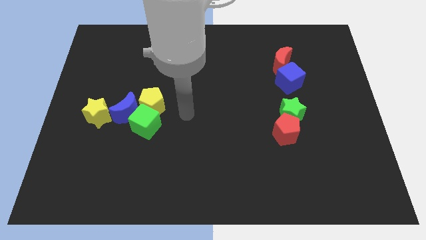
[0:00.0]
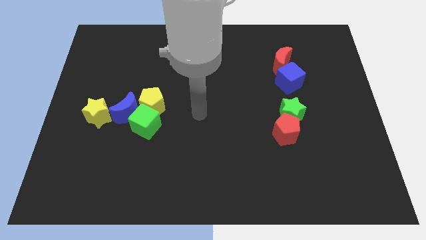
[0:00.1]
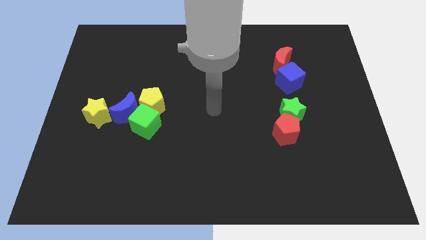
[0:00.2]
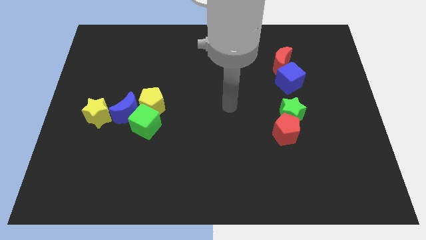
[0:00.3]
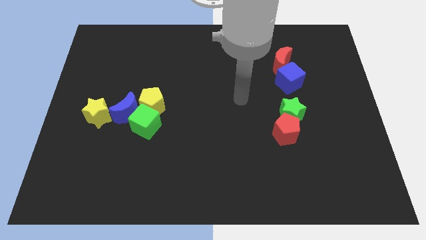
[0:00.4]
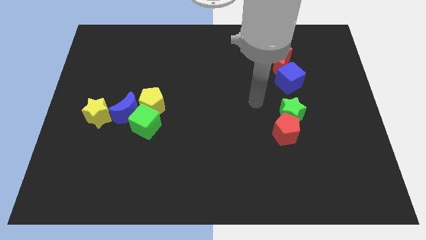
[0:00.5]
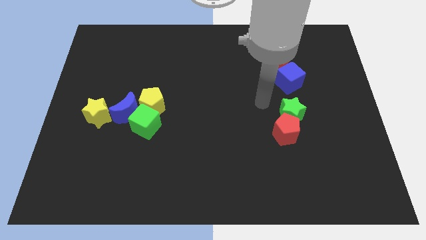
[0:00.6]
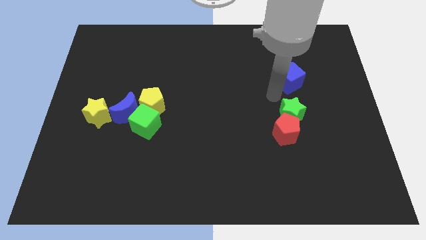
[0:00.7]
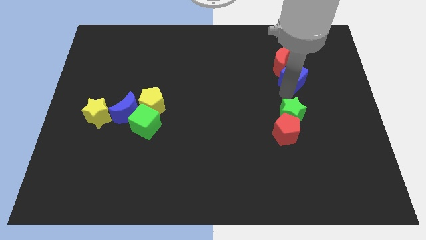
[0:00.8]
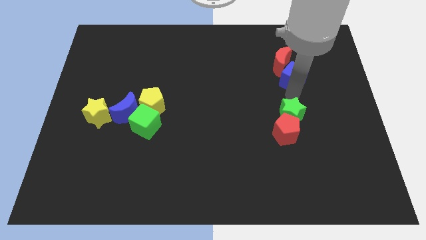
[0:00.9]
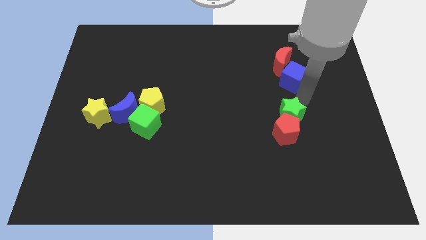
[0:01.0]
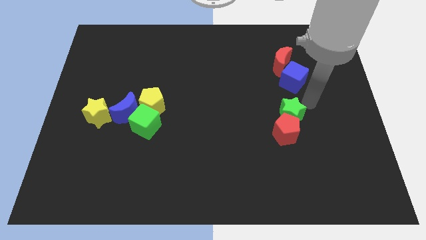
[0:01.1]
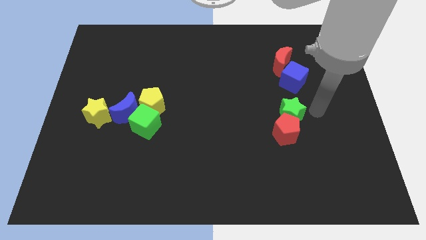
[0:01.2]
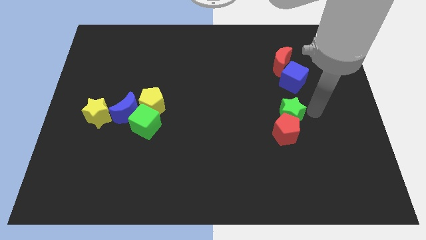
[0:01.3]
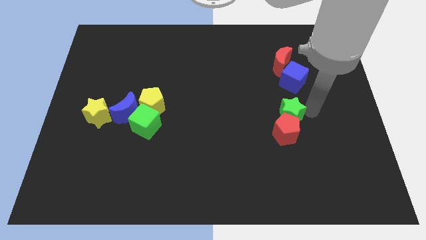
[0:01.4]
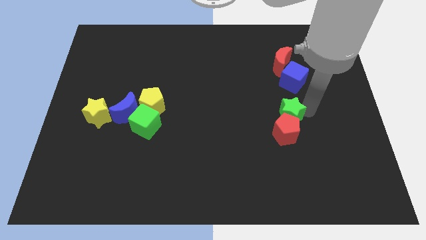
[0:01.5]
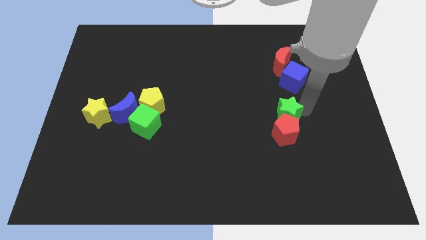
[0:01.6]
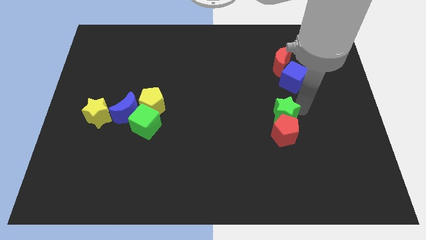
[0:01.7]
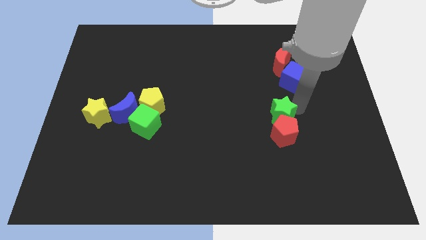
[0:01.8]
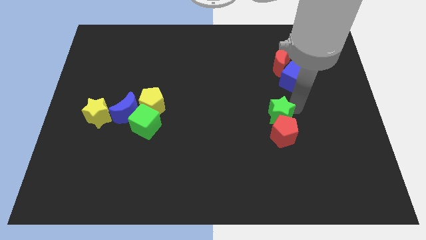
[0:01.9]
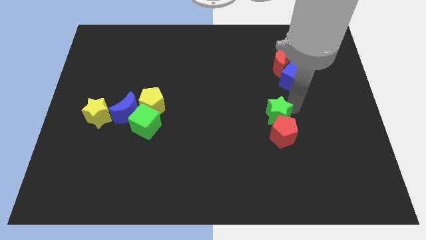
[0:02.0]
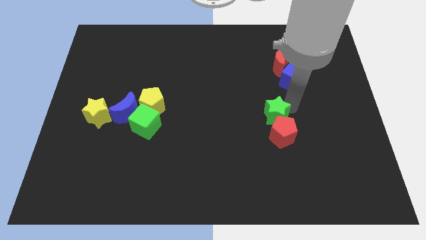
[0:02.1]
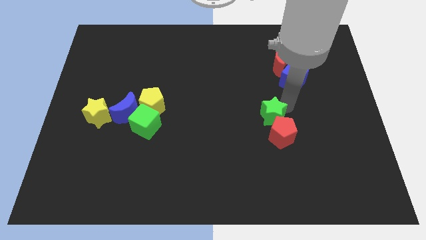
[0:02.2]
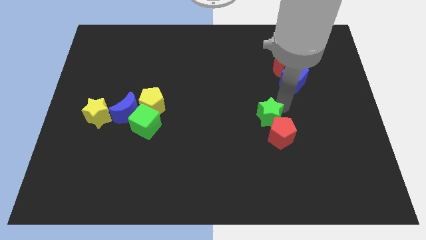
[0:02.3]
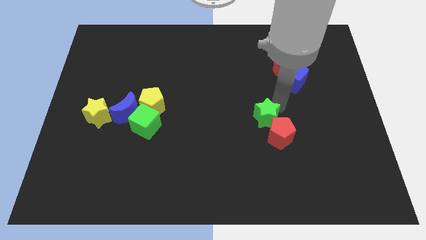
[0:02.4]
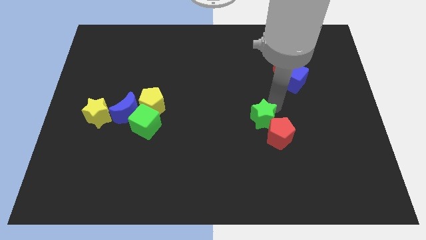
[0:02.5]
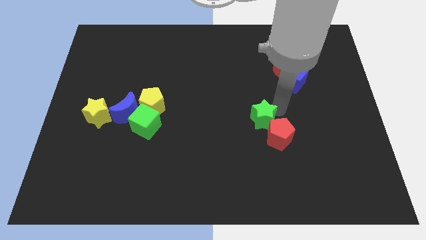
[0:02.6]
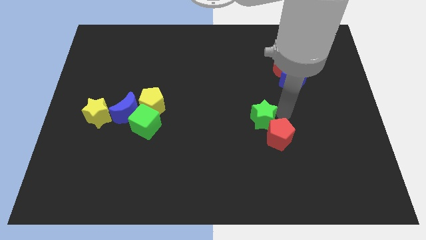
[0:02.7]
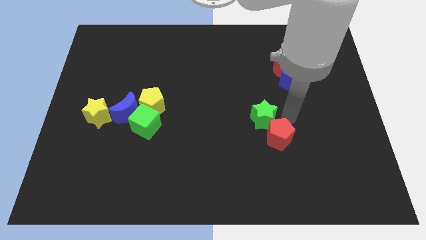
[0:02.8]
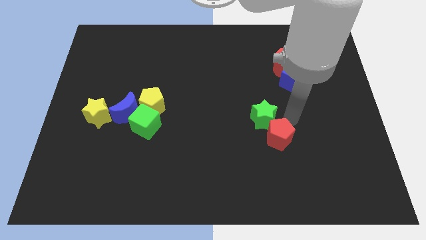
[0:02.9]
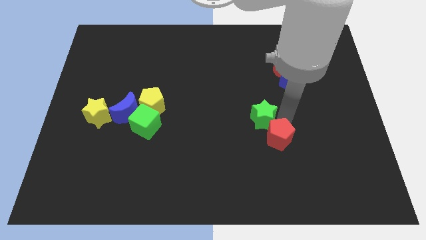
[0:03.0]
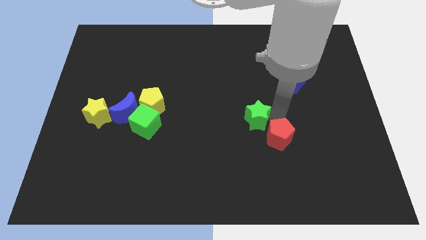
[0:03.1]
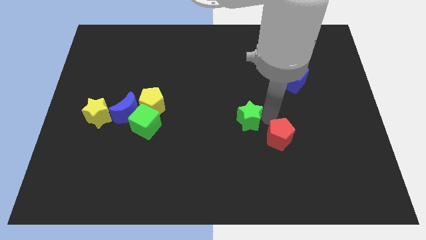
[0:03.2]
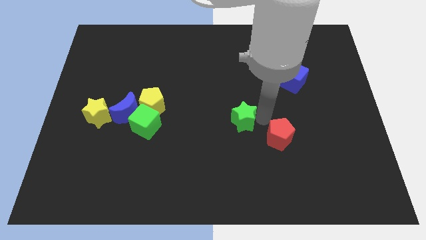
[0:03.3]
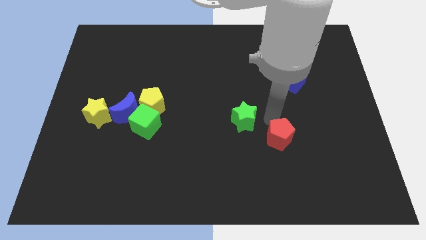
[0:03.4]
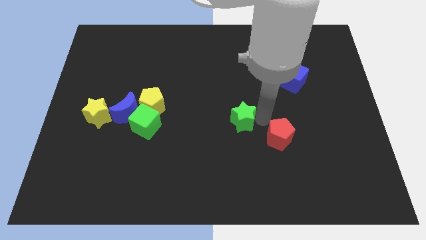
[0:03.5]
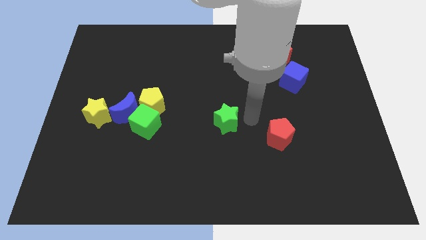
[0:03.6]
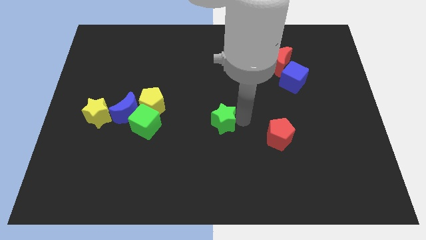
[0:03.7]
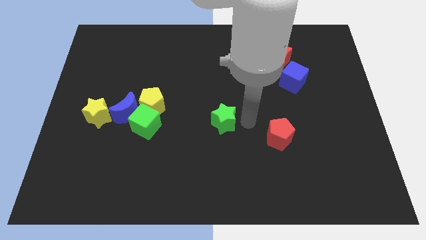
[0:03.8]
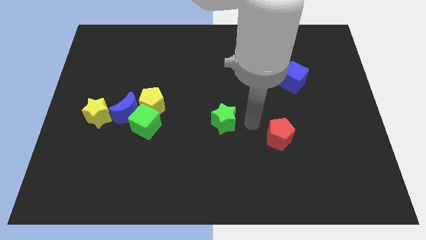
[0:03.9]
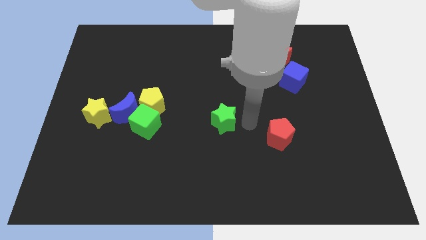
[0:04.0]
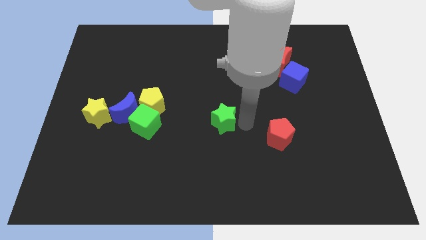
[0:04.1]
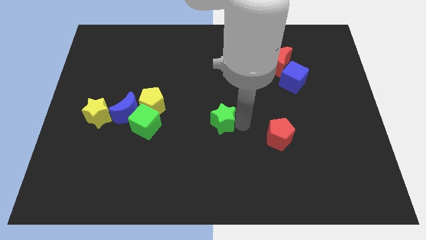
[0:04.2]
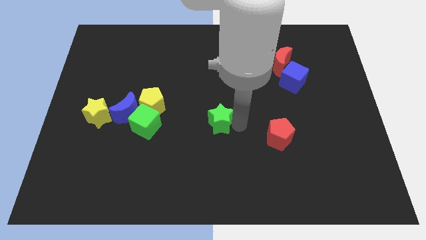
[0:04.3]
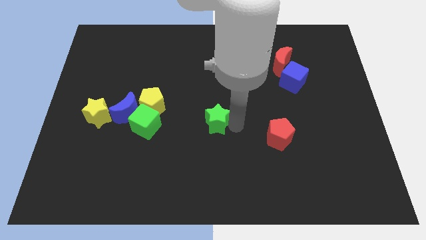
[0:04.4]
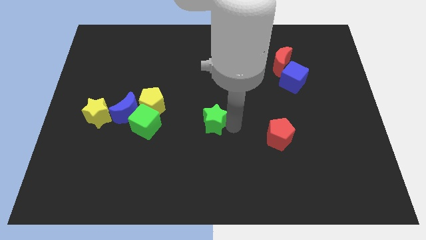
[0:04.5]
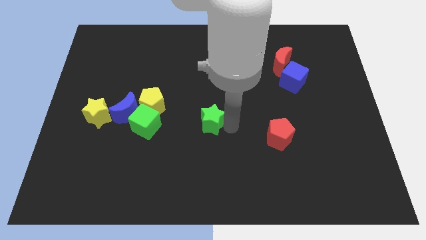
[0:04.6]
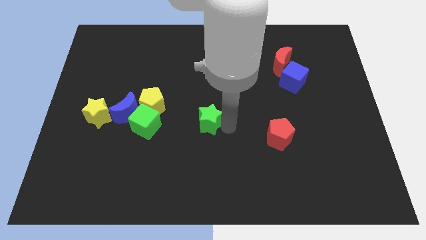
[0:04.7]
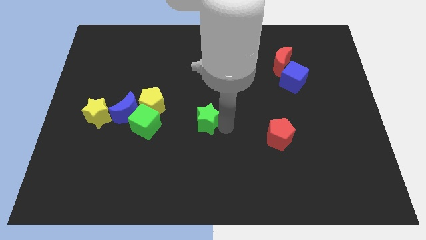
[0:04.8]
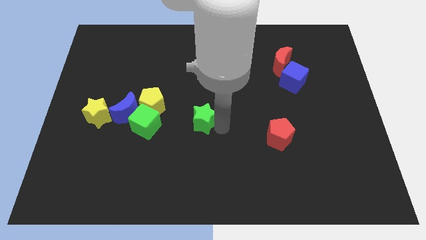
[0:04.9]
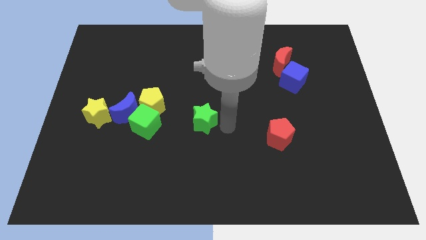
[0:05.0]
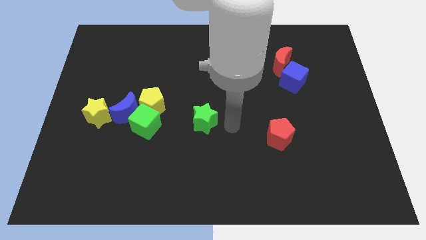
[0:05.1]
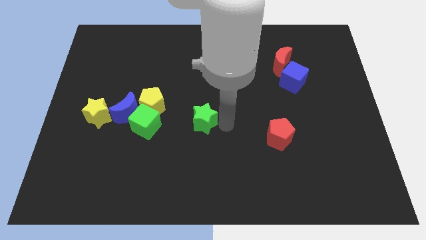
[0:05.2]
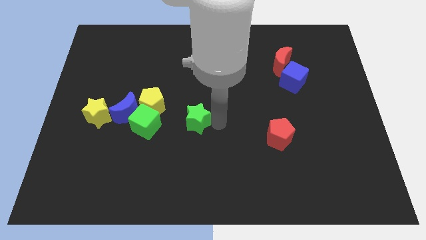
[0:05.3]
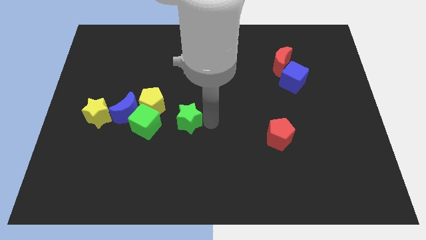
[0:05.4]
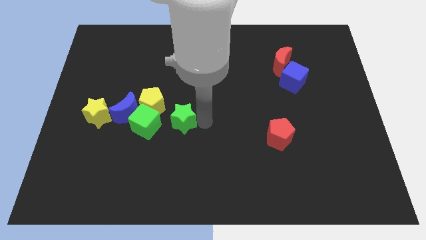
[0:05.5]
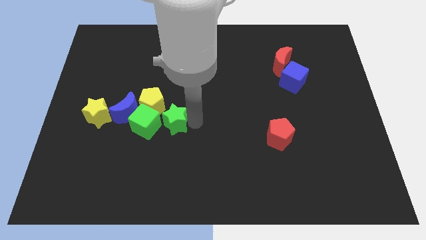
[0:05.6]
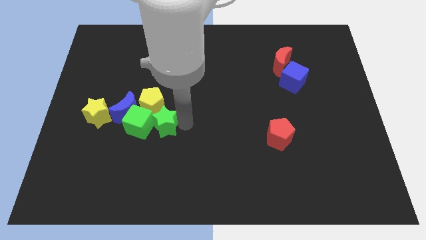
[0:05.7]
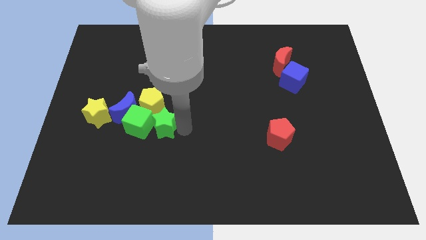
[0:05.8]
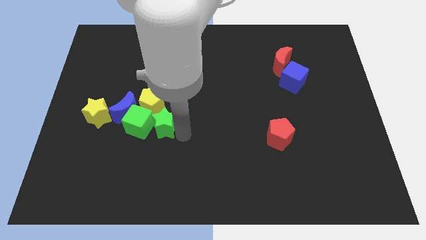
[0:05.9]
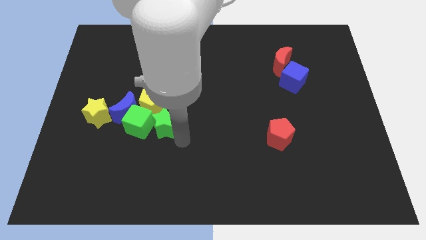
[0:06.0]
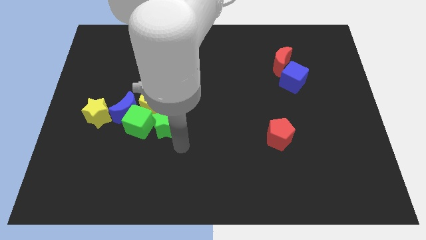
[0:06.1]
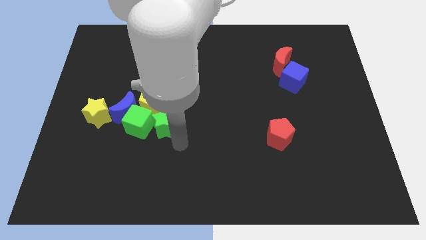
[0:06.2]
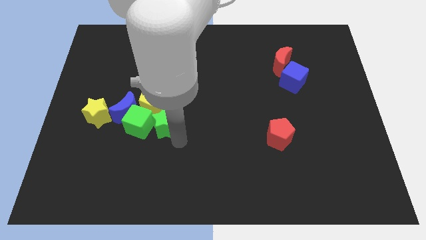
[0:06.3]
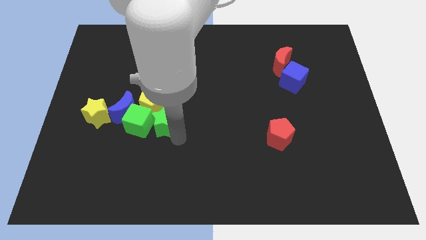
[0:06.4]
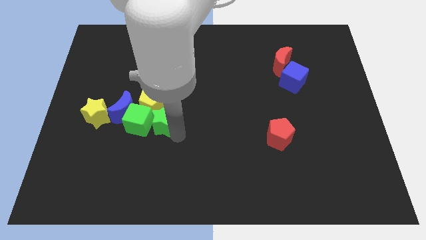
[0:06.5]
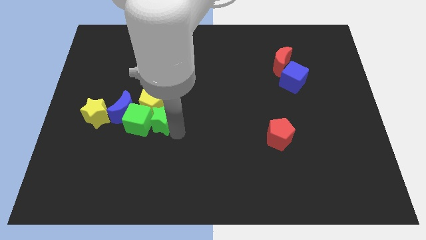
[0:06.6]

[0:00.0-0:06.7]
push the green star close to the yellow pentagon
